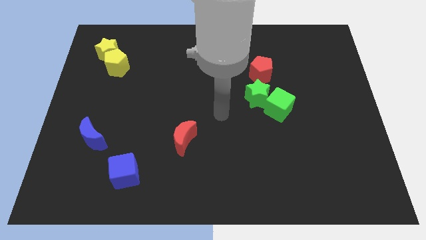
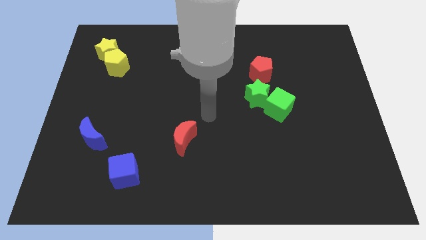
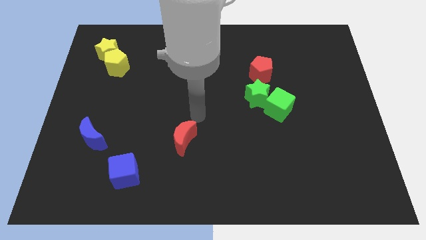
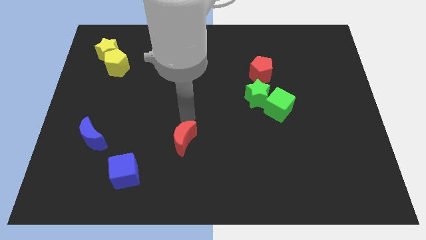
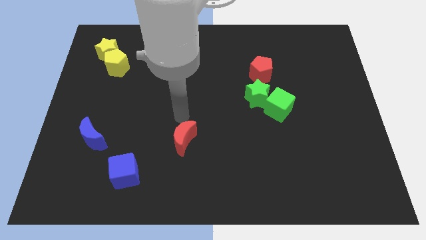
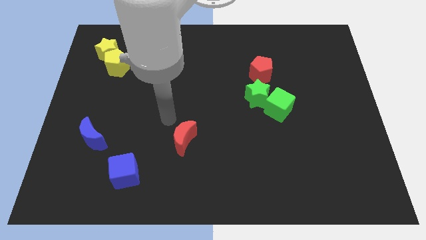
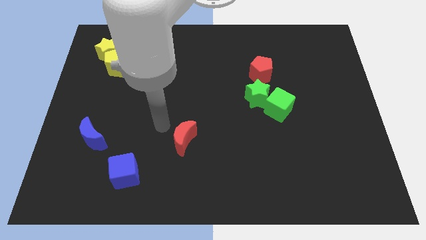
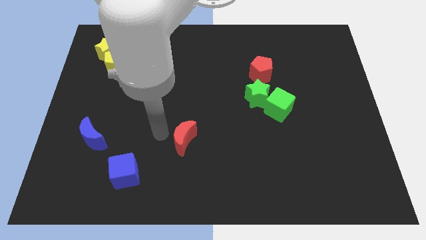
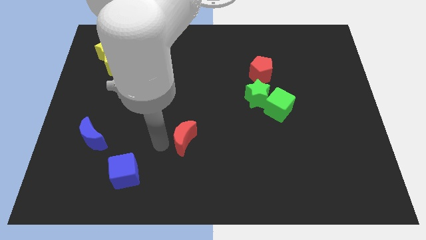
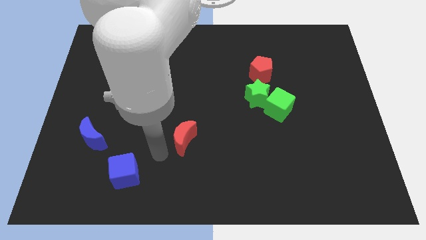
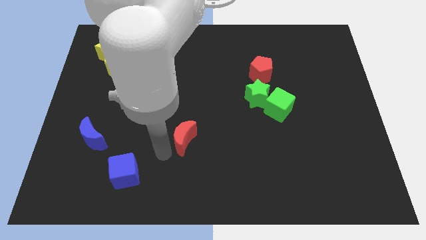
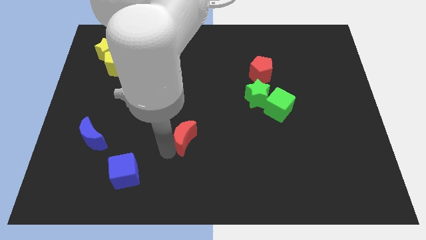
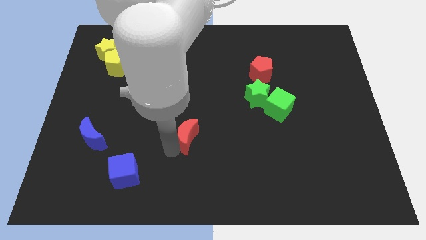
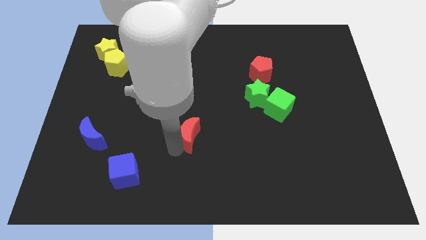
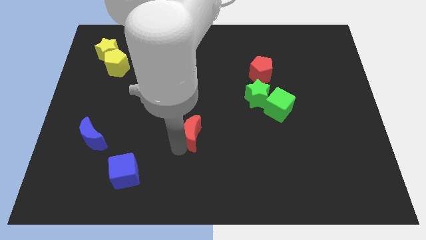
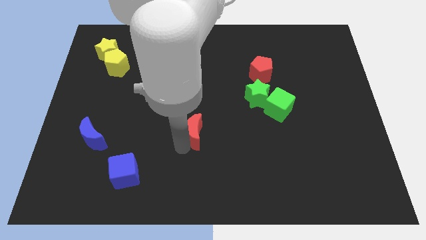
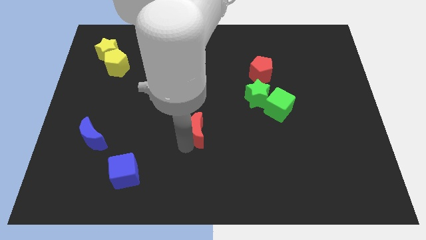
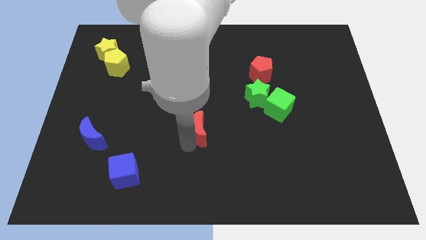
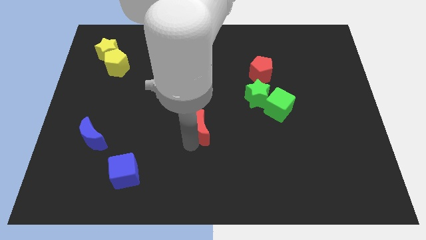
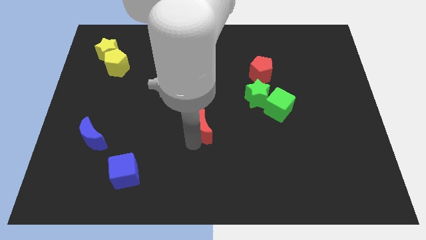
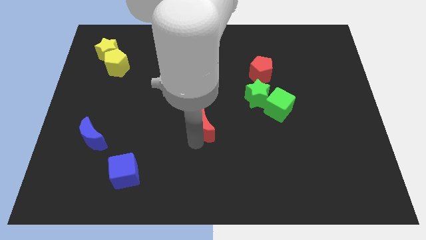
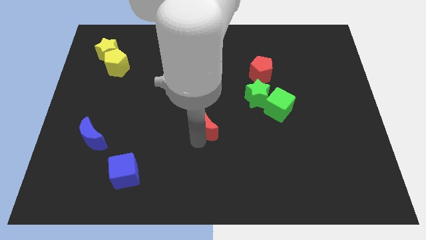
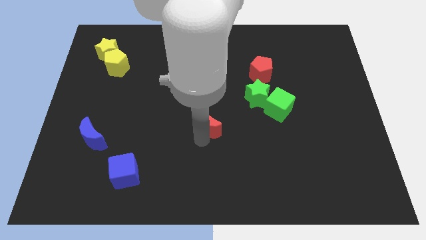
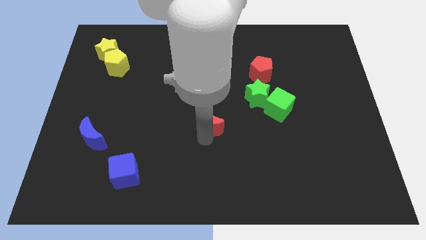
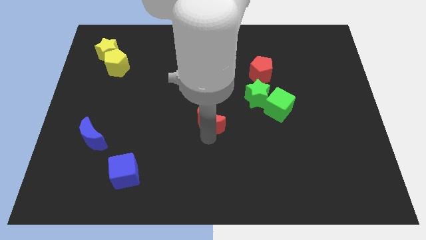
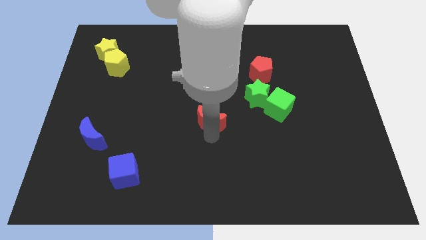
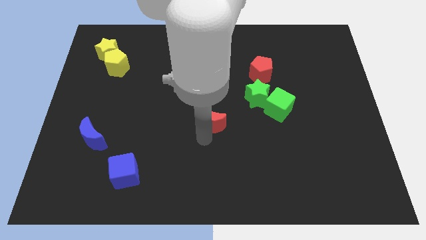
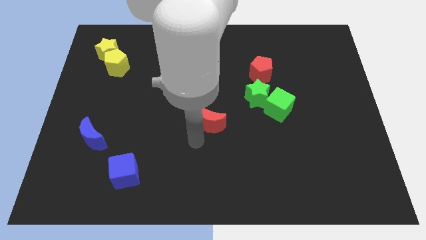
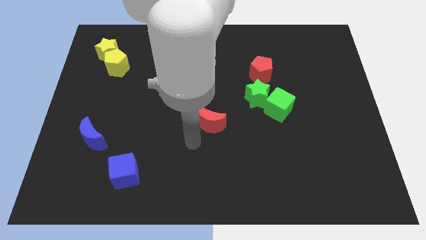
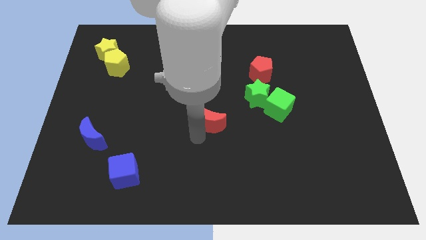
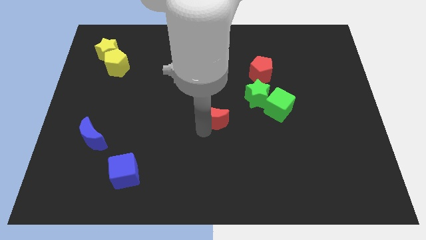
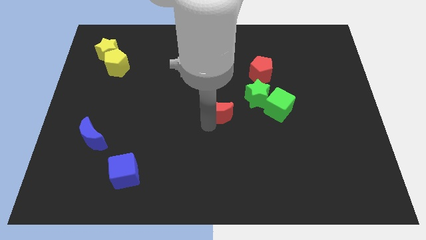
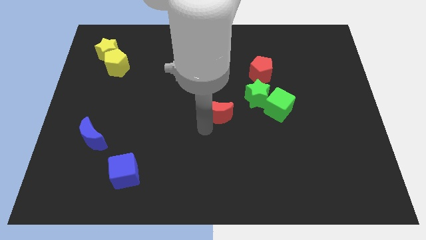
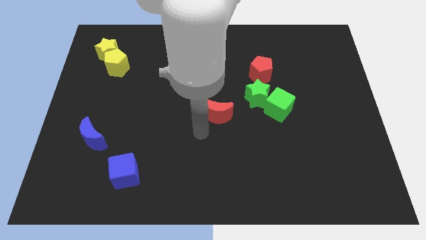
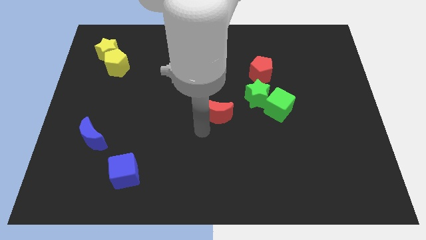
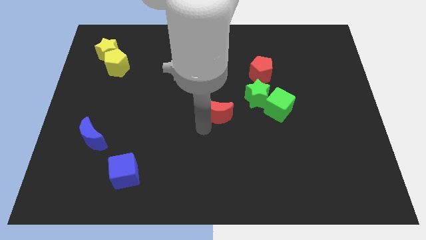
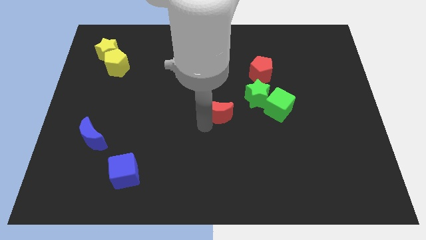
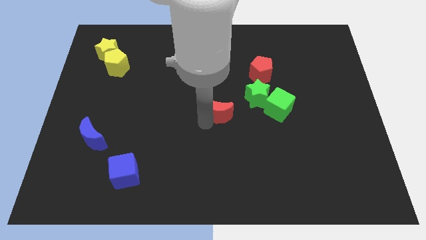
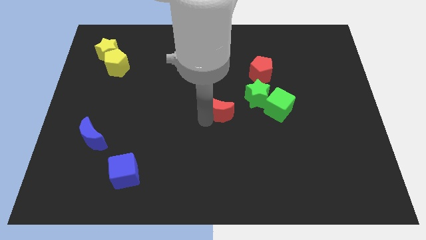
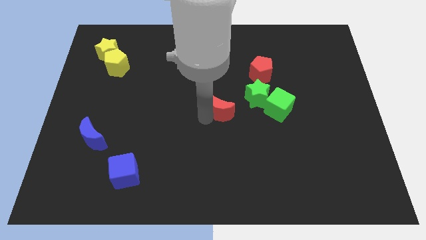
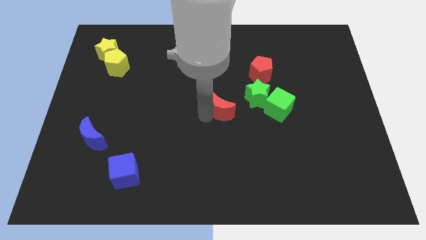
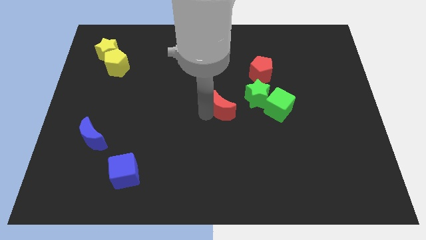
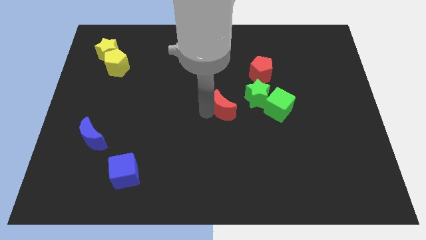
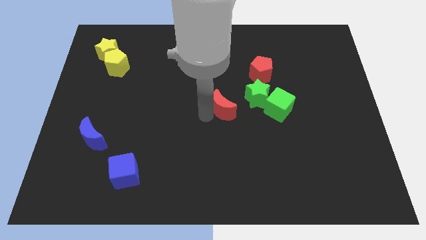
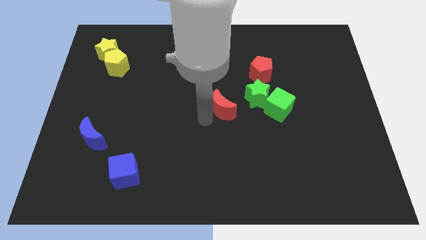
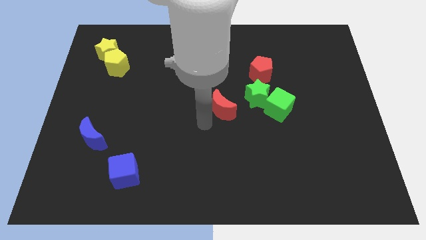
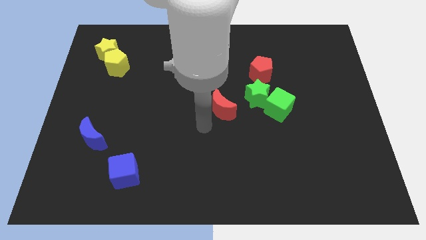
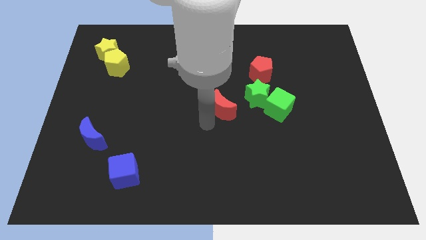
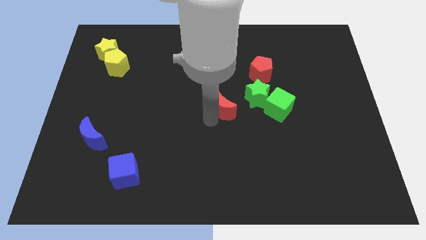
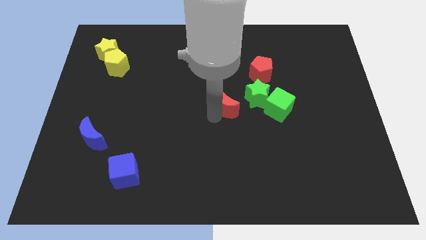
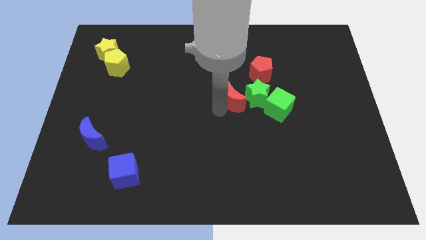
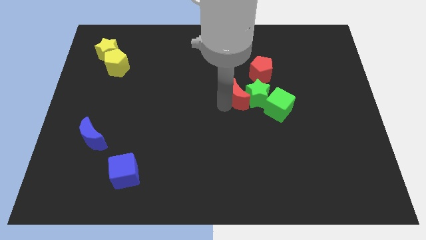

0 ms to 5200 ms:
slide the red moon to the top left side of the green cube

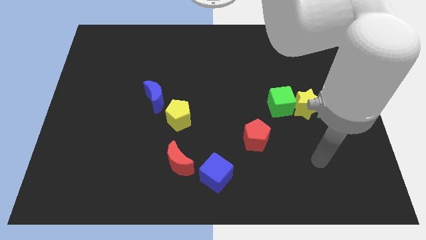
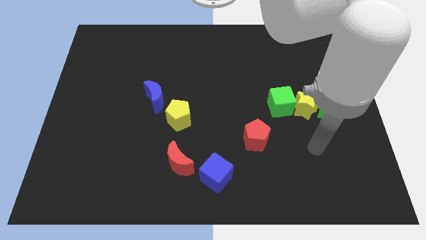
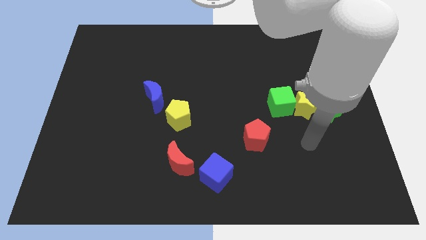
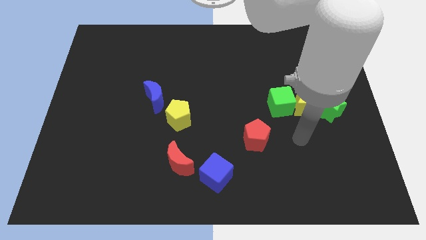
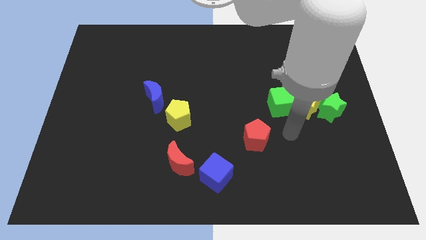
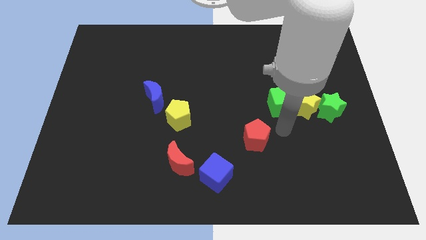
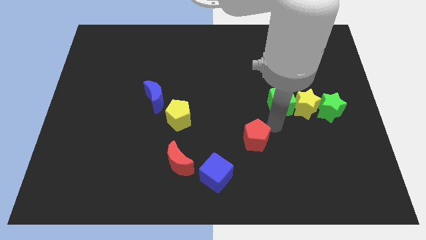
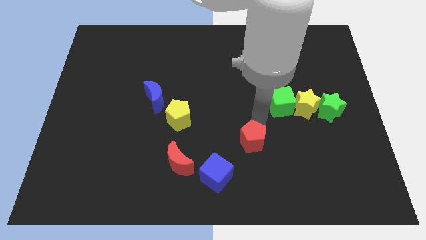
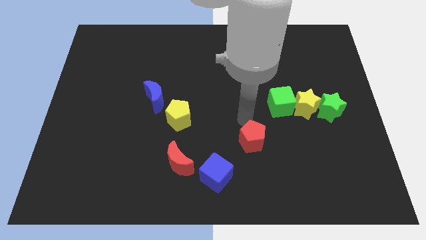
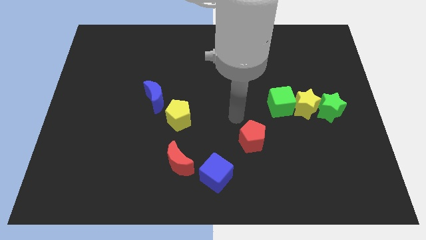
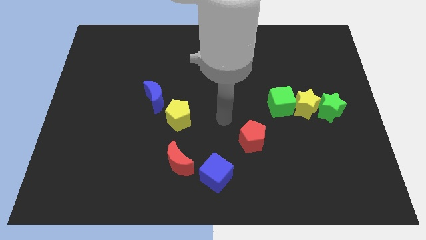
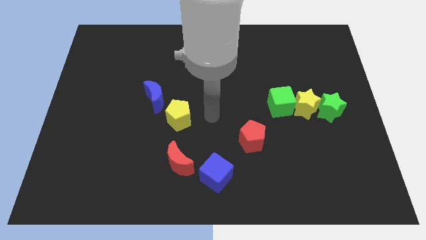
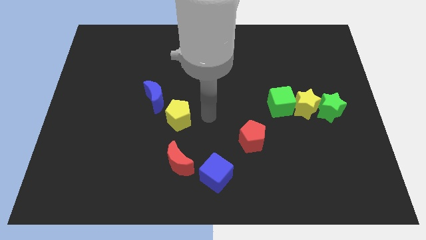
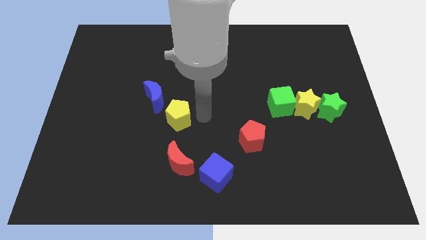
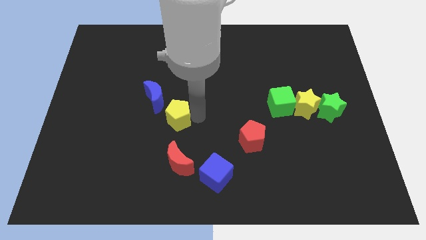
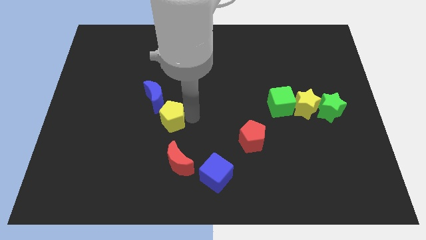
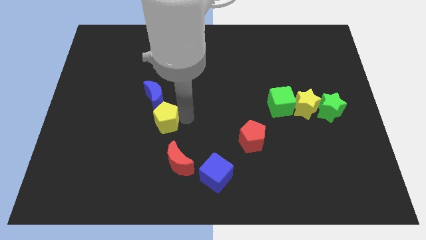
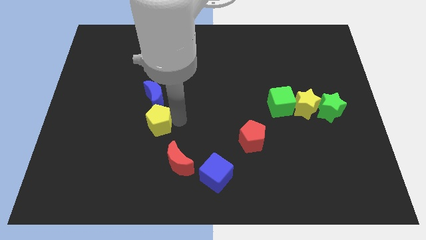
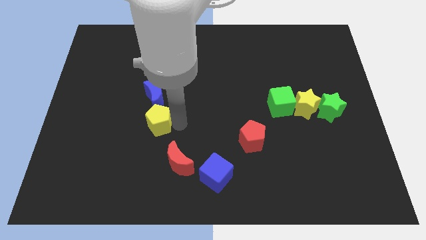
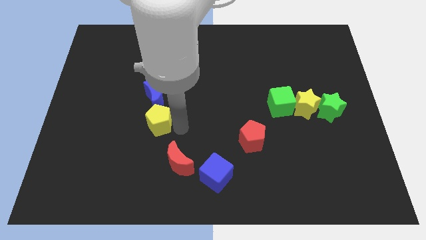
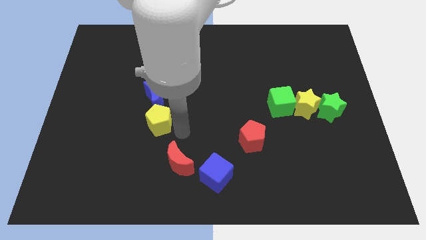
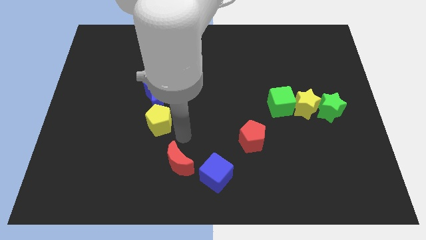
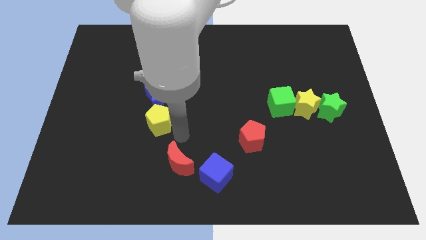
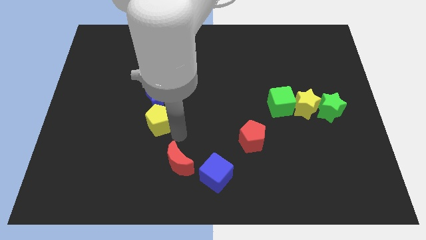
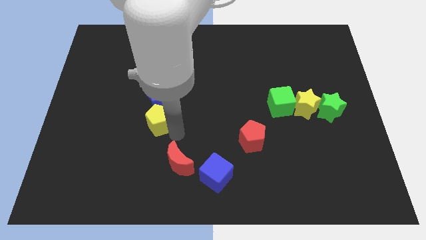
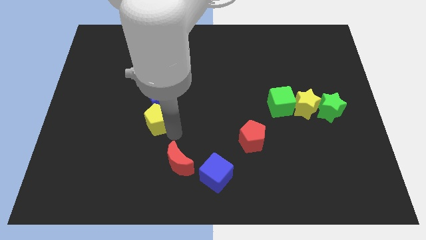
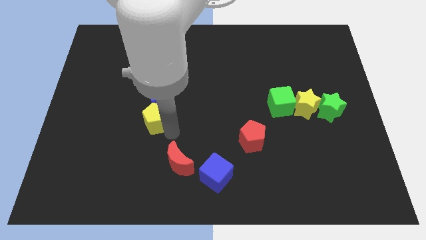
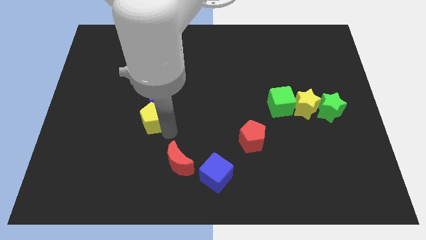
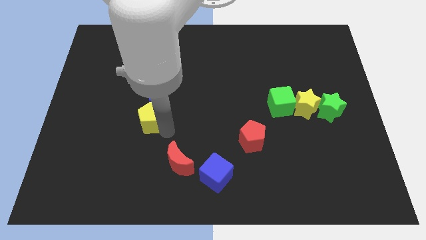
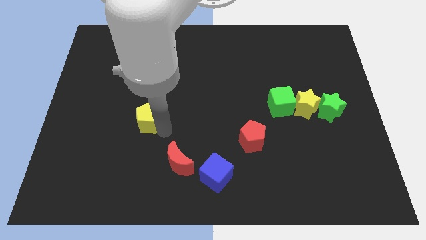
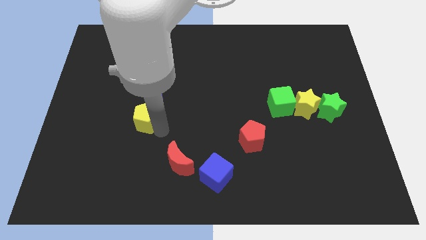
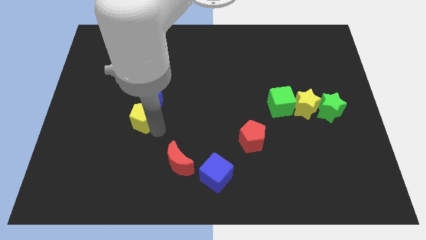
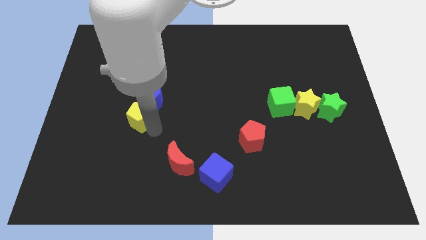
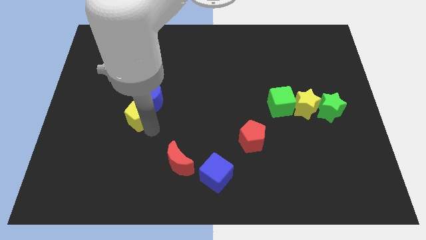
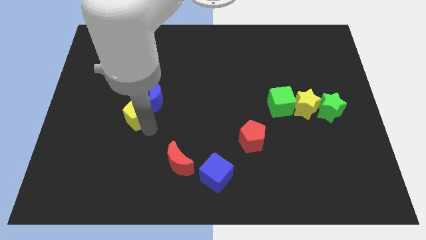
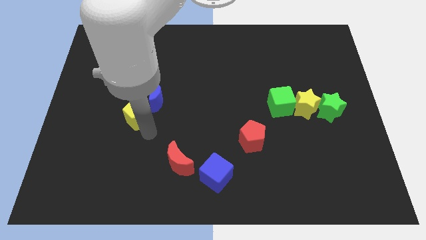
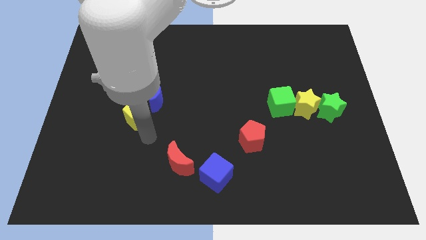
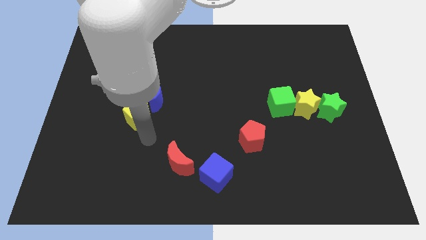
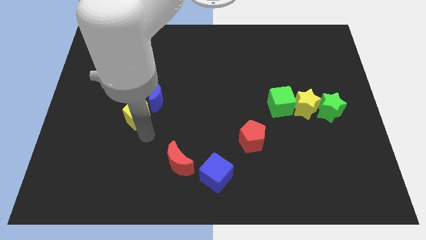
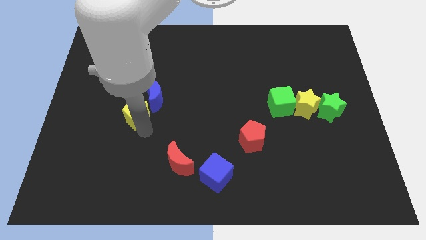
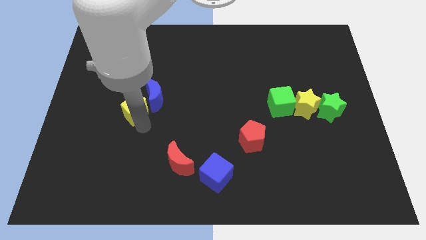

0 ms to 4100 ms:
push the yellow pentagon to the left side of the blue moon
